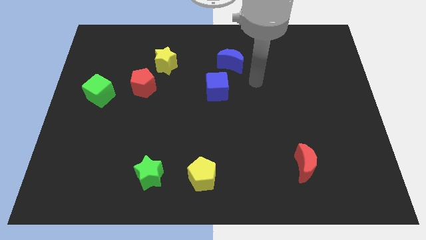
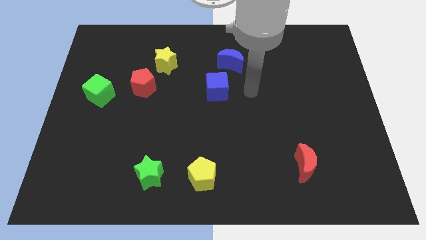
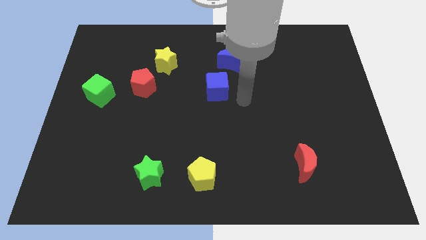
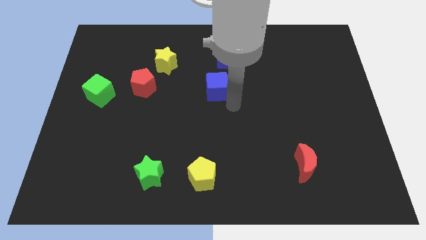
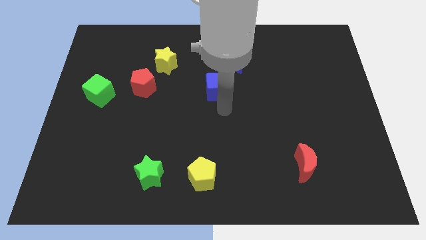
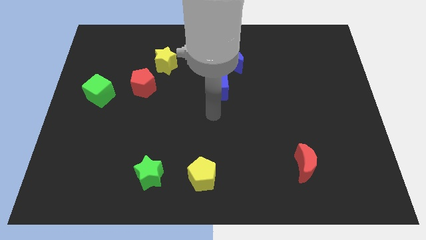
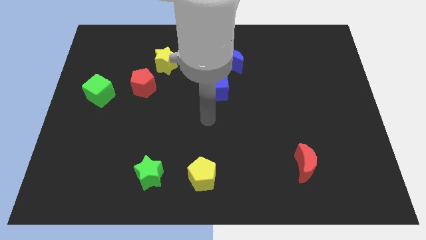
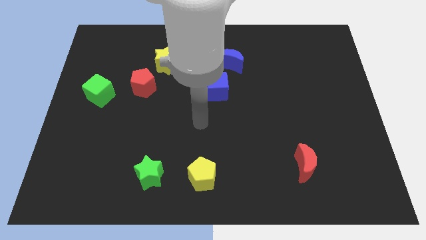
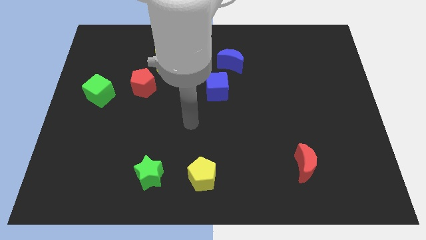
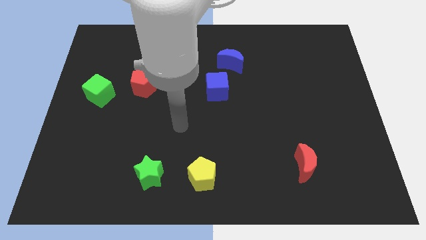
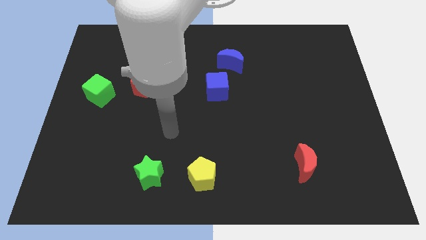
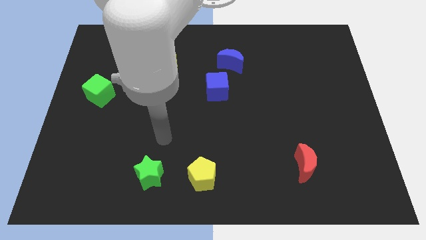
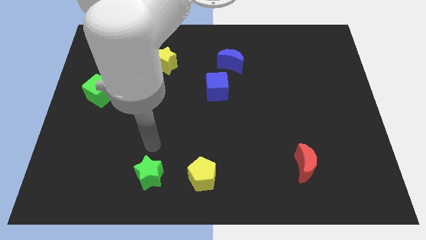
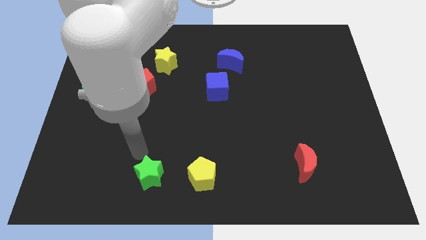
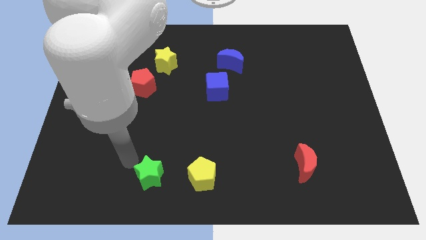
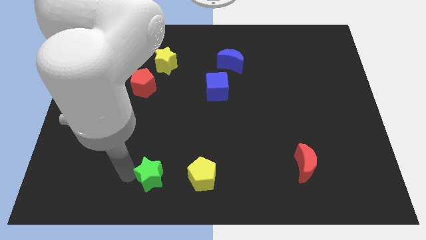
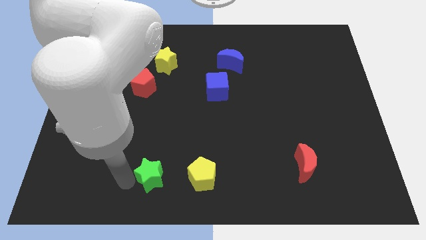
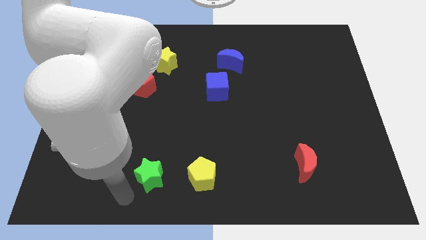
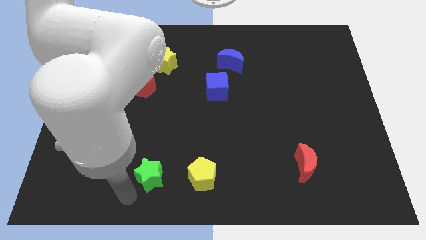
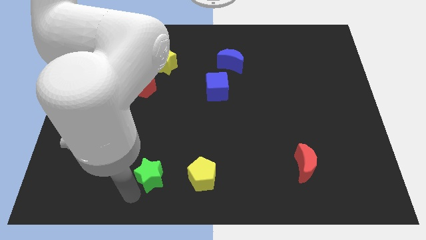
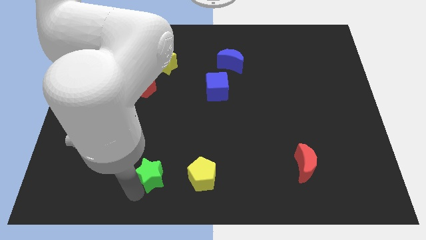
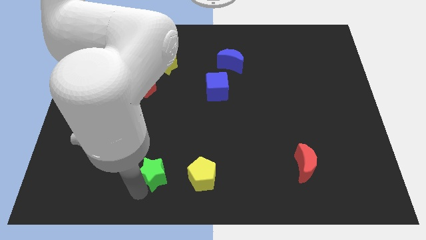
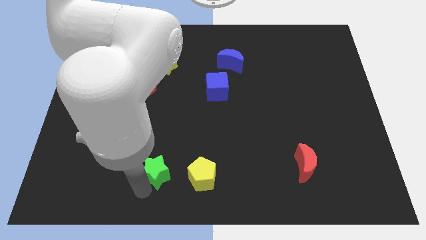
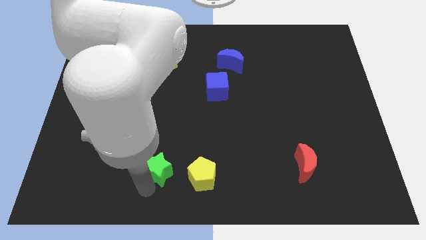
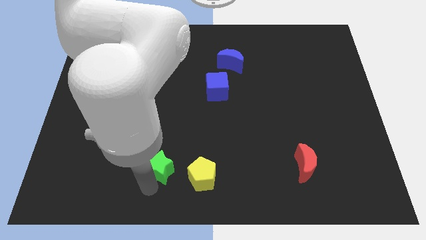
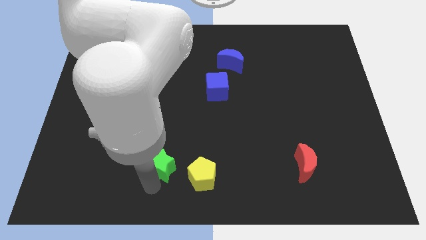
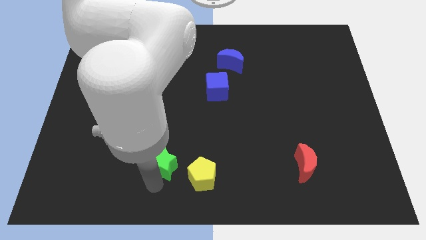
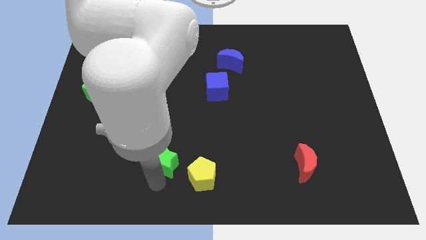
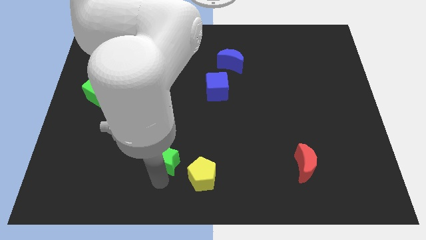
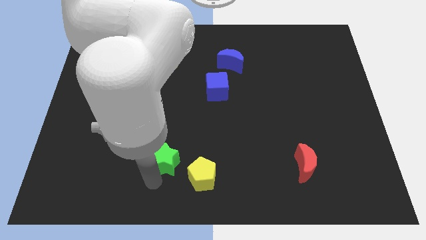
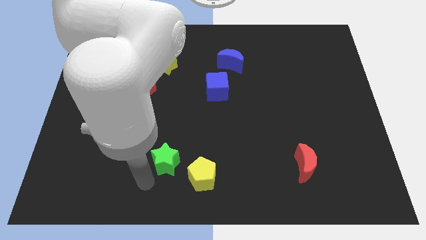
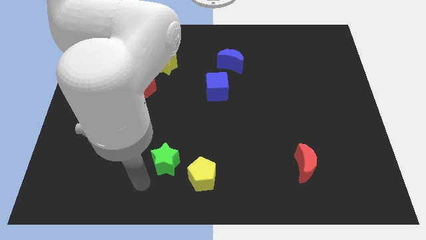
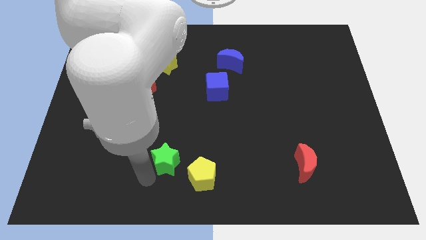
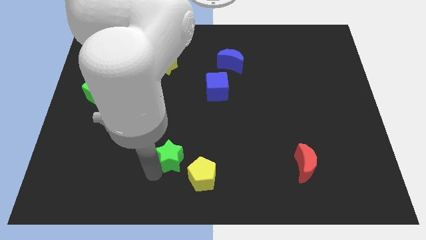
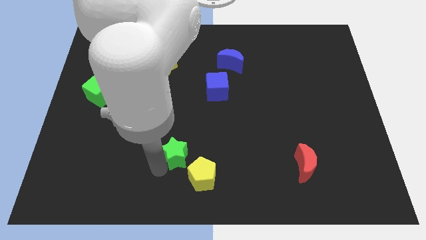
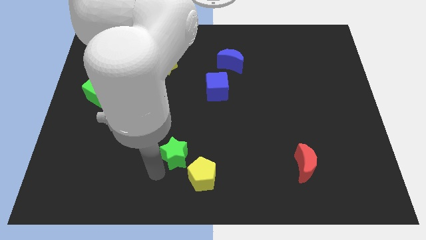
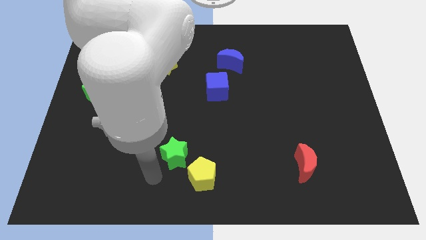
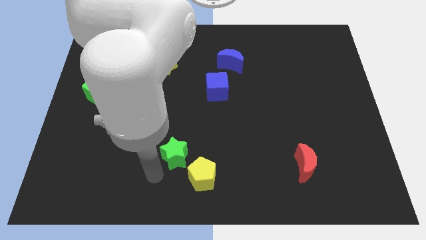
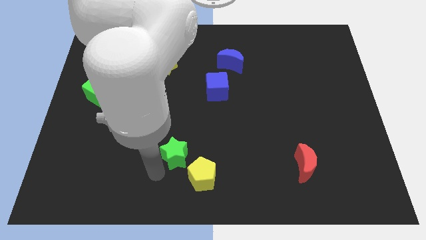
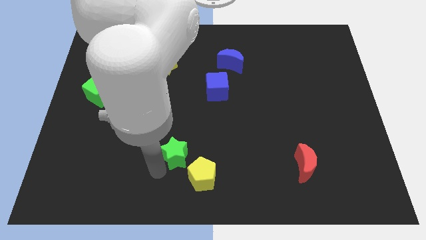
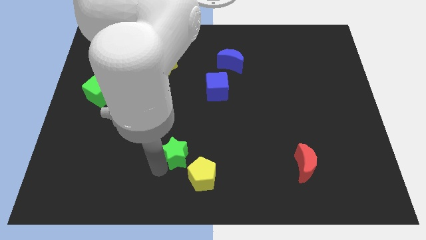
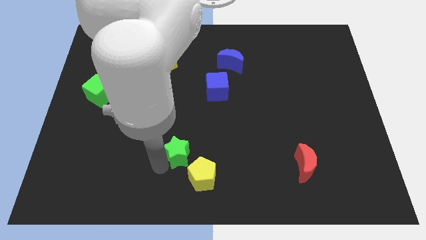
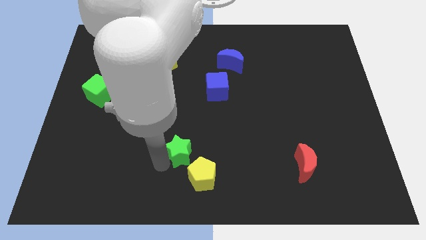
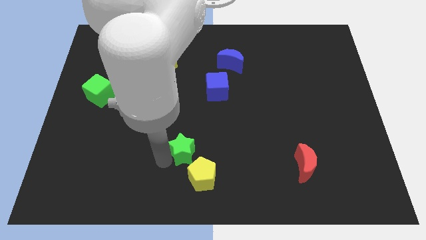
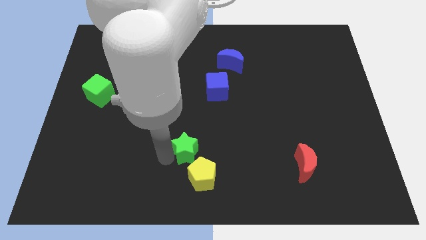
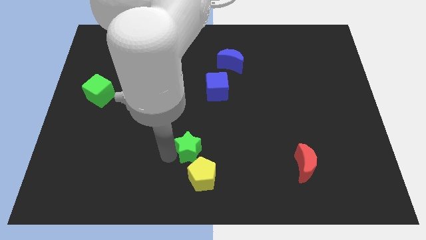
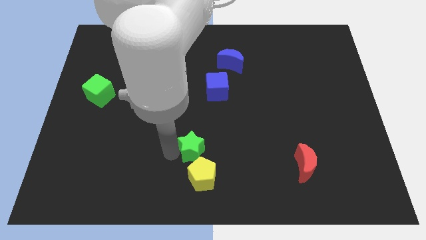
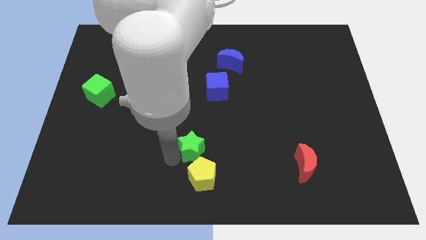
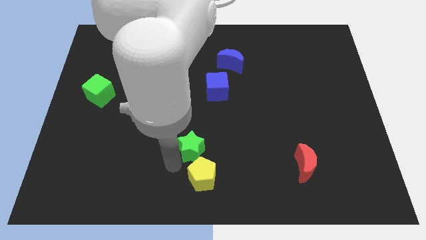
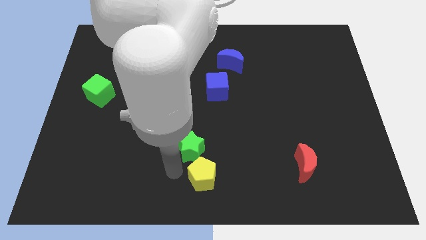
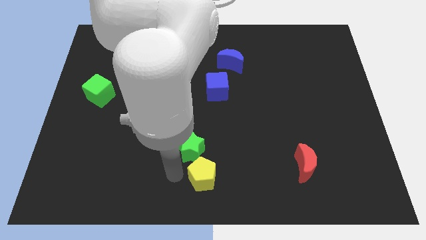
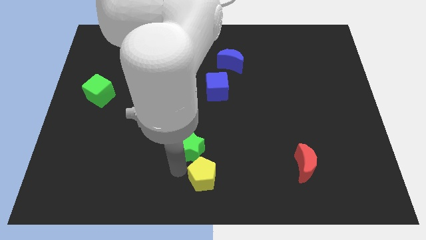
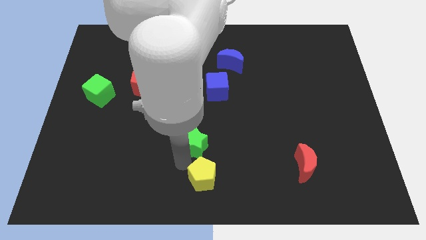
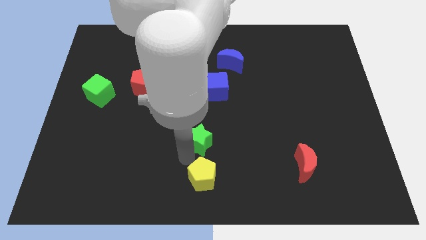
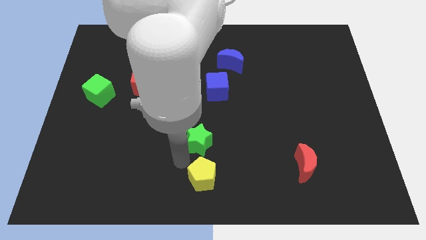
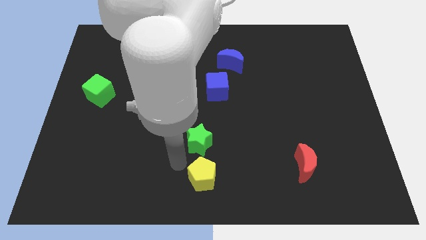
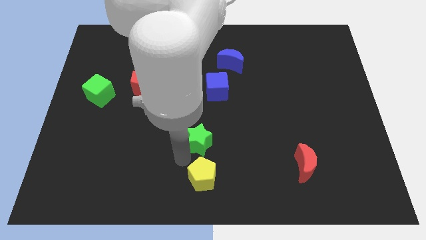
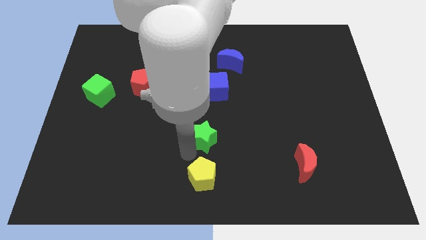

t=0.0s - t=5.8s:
move the green star below the blue cube

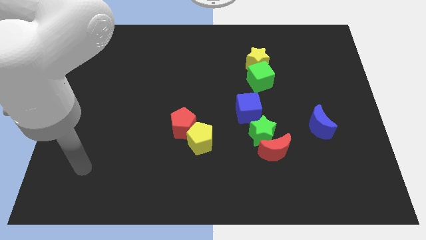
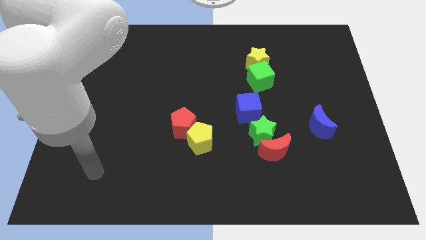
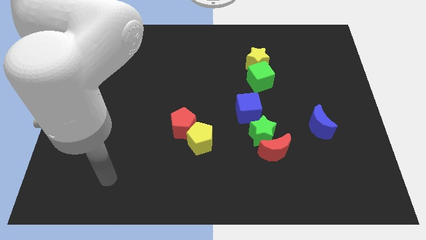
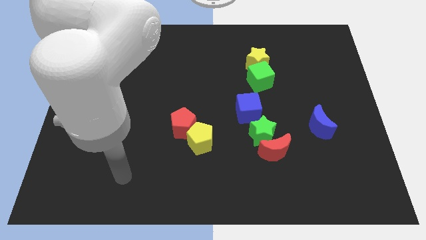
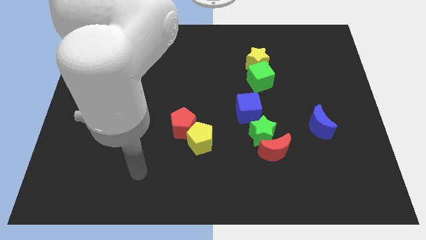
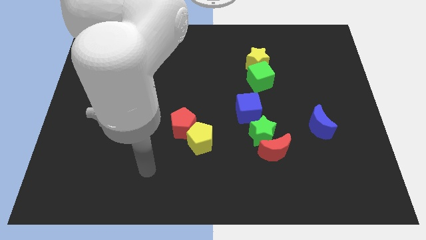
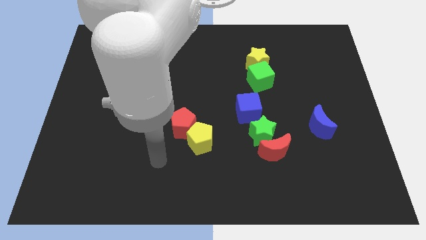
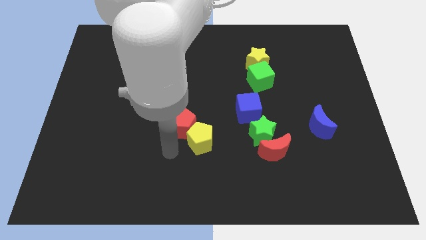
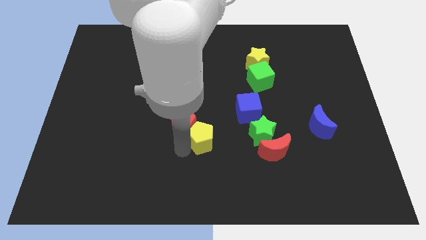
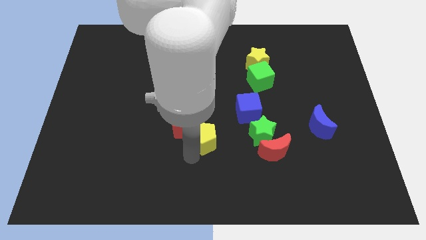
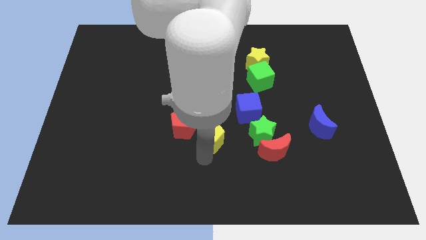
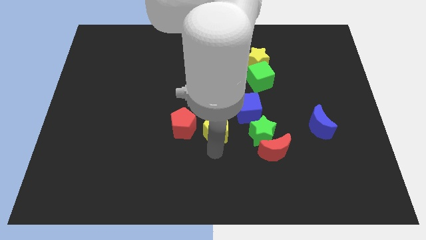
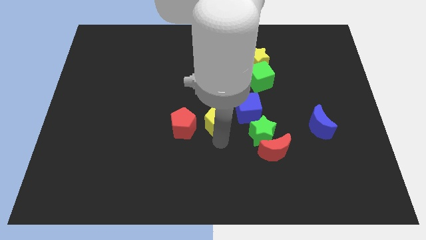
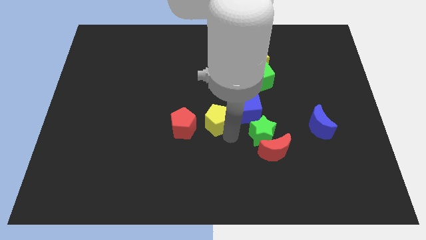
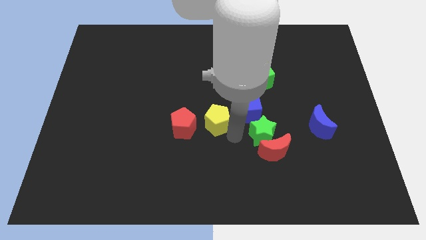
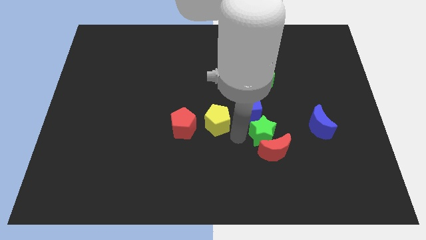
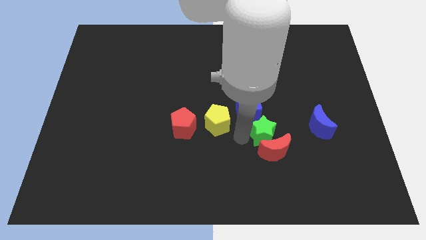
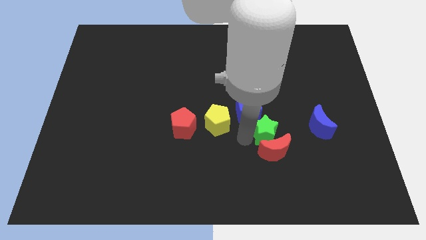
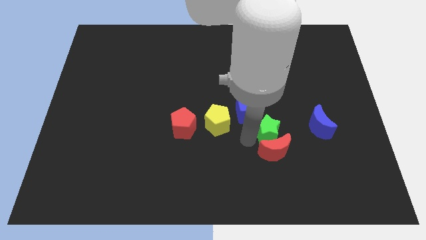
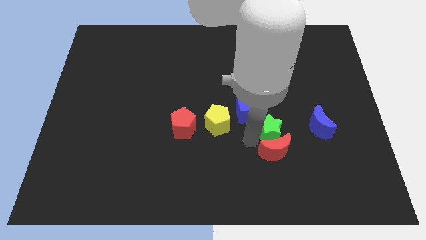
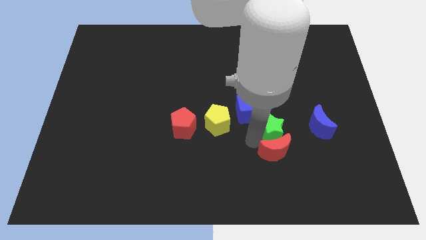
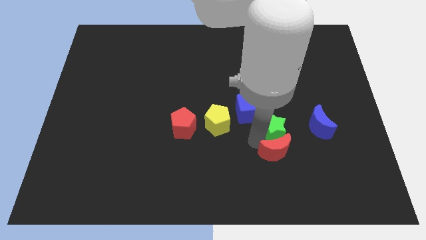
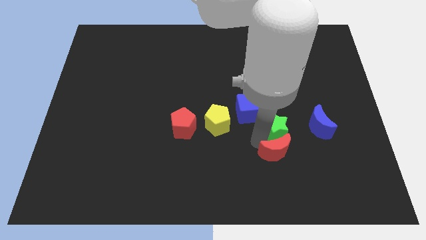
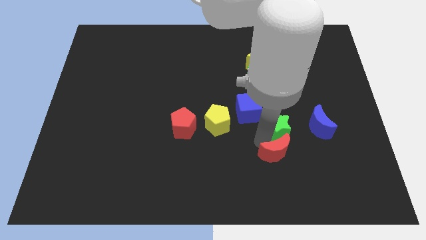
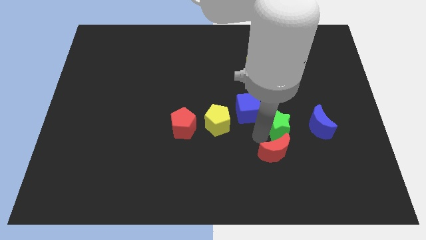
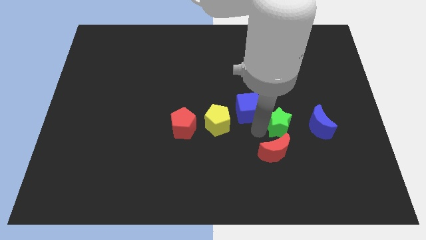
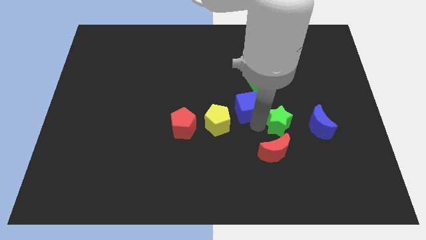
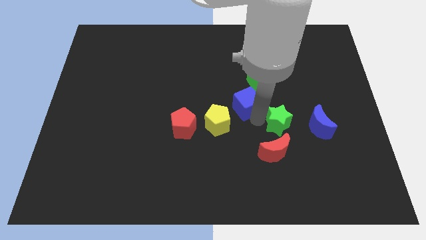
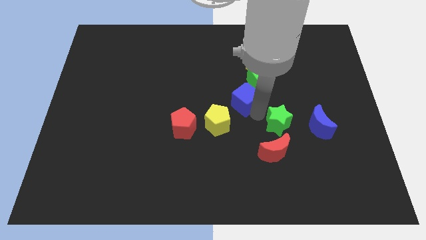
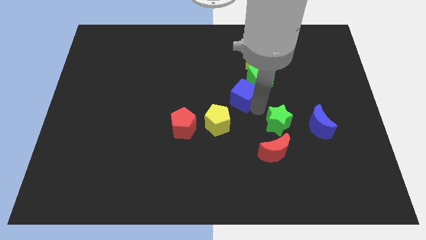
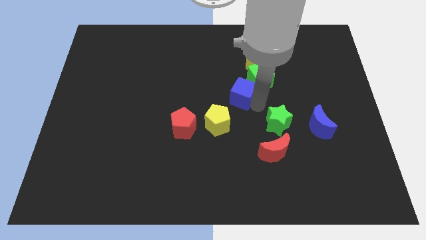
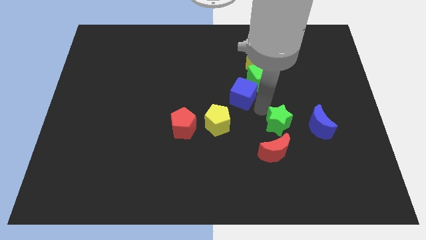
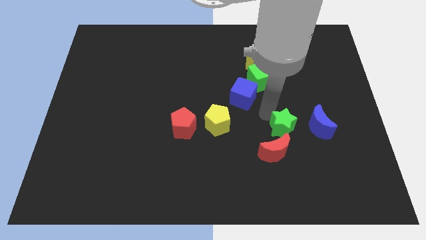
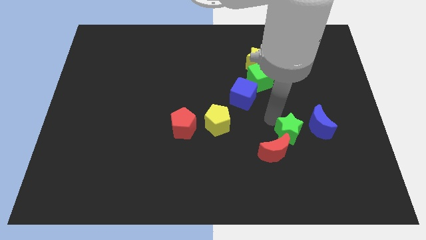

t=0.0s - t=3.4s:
put the green star to the bottom left of the blue moon
